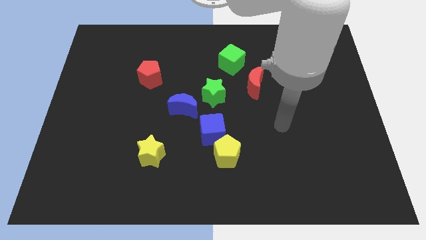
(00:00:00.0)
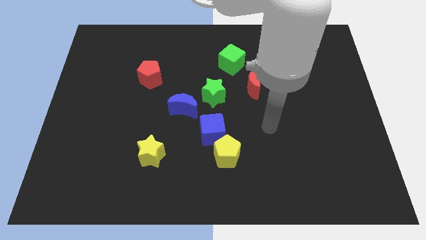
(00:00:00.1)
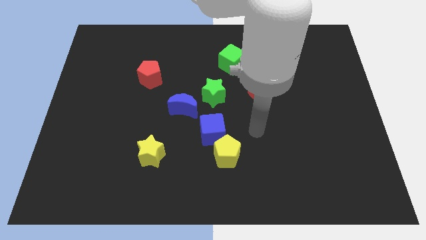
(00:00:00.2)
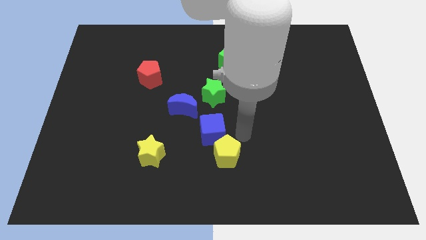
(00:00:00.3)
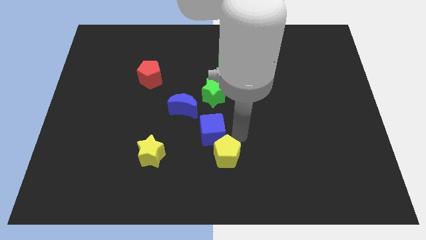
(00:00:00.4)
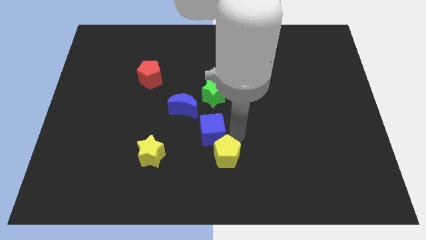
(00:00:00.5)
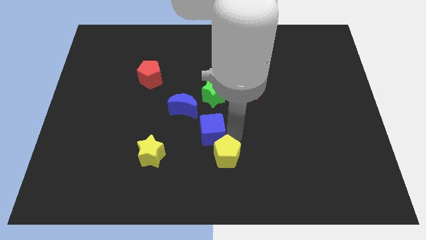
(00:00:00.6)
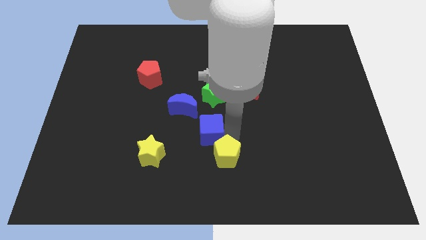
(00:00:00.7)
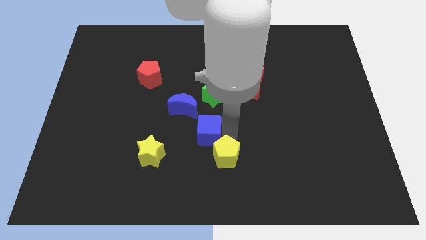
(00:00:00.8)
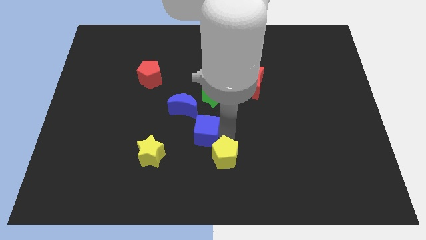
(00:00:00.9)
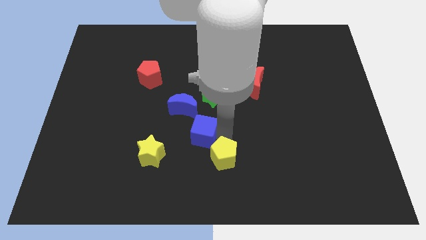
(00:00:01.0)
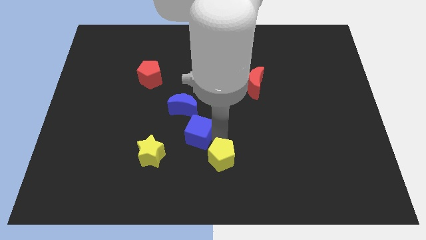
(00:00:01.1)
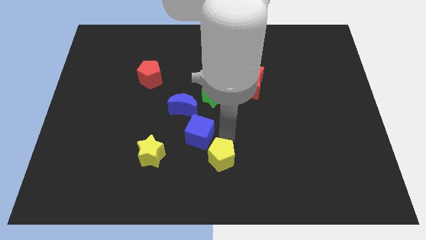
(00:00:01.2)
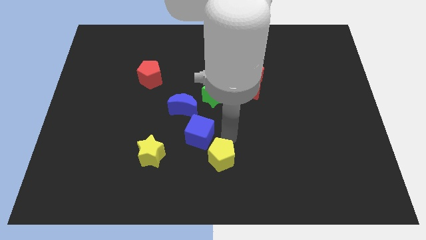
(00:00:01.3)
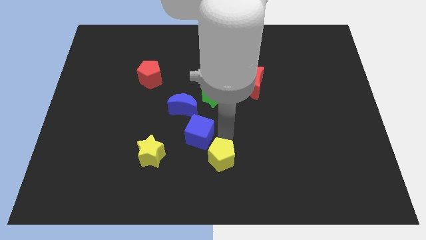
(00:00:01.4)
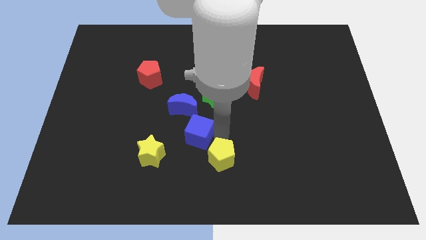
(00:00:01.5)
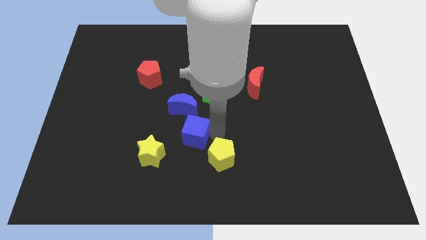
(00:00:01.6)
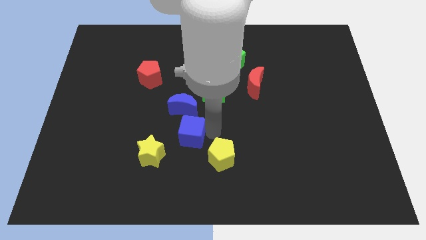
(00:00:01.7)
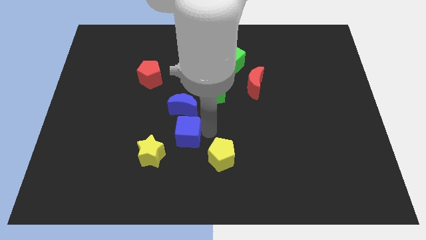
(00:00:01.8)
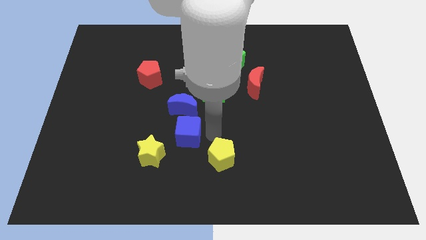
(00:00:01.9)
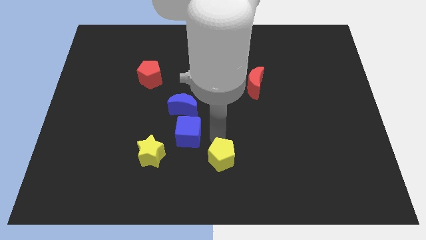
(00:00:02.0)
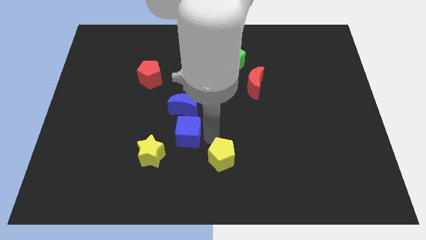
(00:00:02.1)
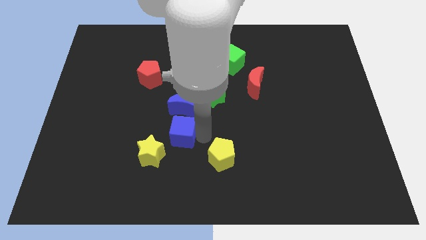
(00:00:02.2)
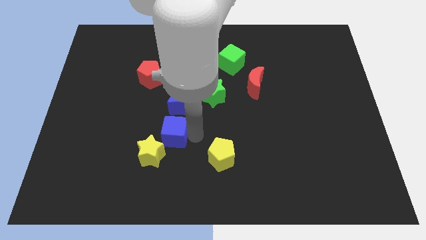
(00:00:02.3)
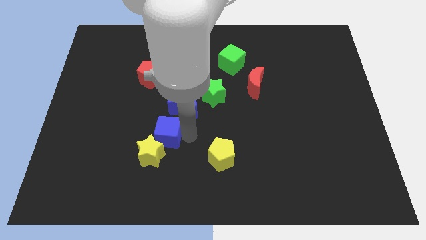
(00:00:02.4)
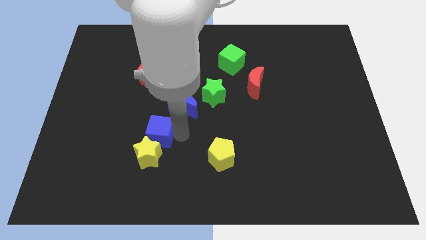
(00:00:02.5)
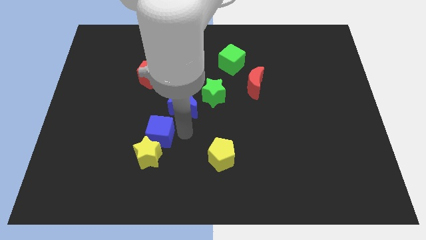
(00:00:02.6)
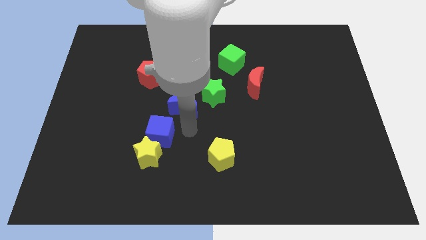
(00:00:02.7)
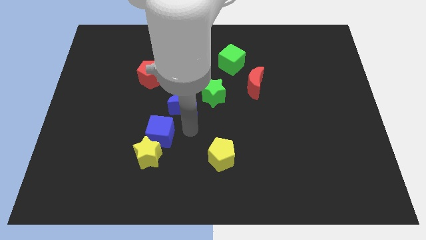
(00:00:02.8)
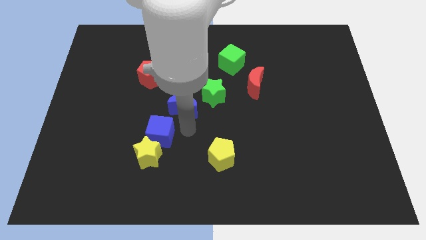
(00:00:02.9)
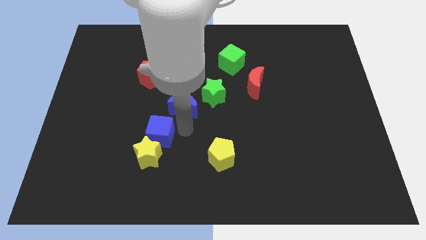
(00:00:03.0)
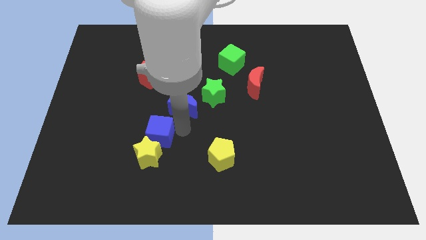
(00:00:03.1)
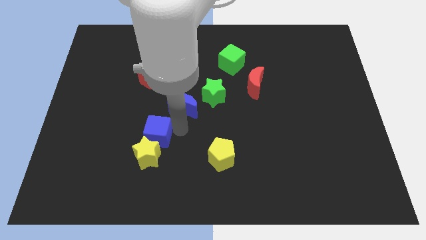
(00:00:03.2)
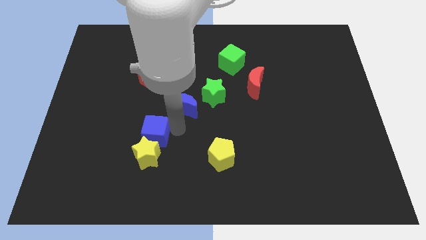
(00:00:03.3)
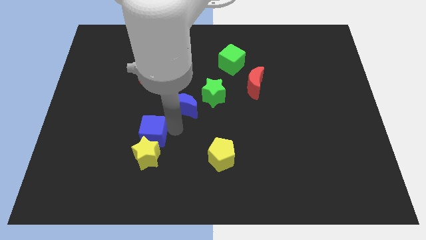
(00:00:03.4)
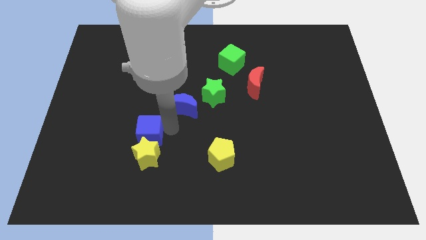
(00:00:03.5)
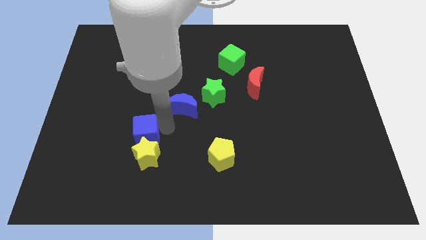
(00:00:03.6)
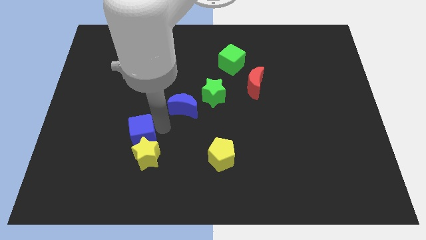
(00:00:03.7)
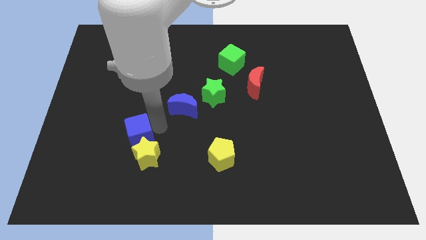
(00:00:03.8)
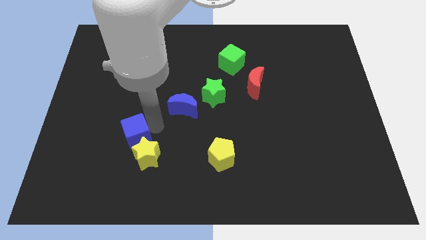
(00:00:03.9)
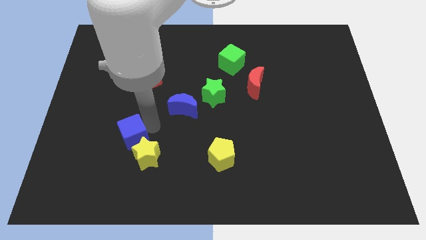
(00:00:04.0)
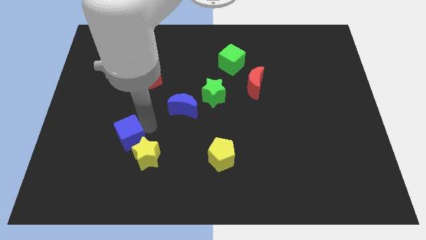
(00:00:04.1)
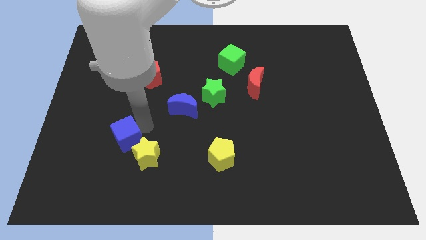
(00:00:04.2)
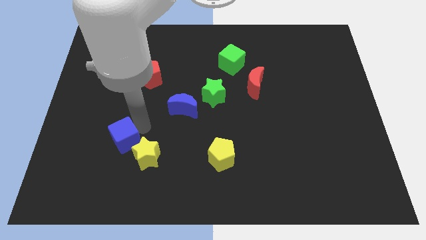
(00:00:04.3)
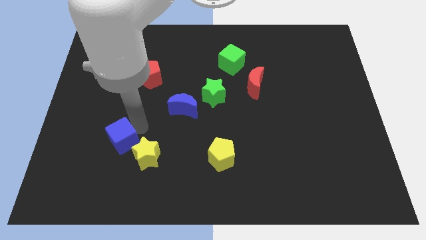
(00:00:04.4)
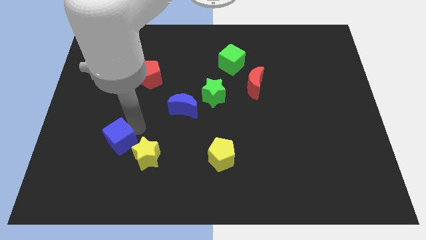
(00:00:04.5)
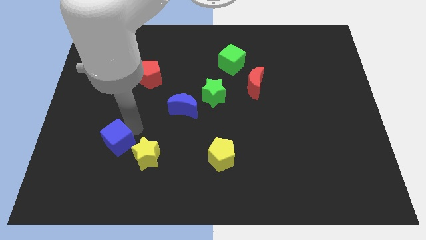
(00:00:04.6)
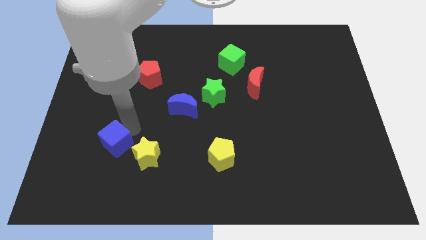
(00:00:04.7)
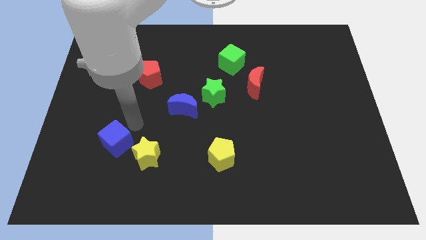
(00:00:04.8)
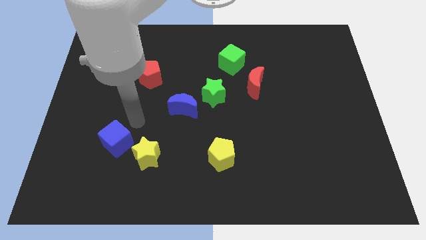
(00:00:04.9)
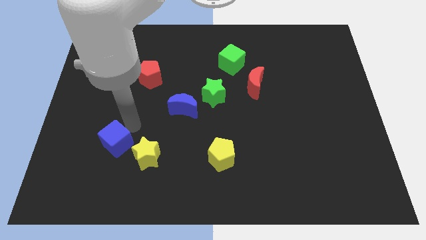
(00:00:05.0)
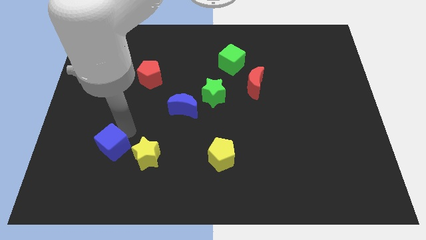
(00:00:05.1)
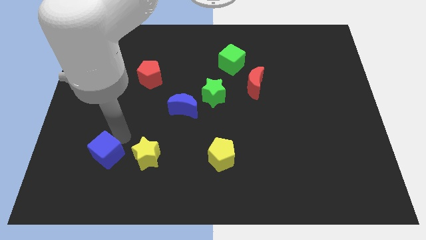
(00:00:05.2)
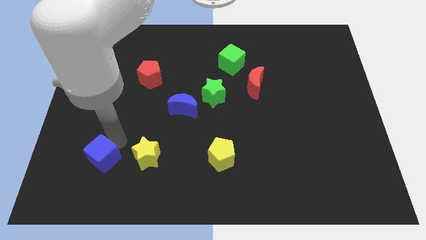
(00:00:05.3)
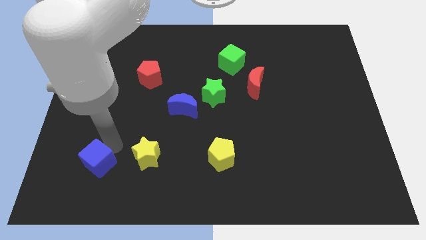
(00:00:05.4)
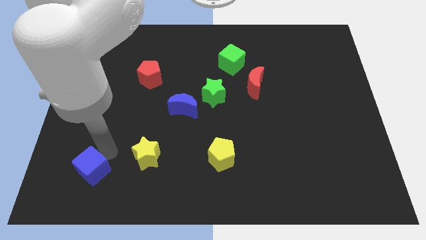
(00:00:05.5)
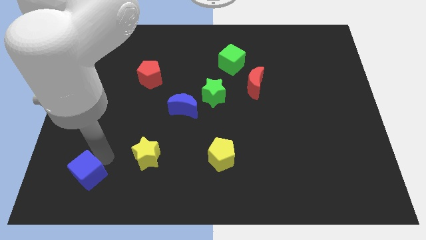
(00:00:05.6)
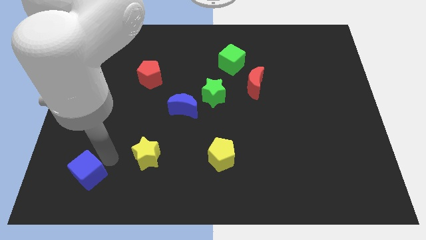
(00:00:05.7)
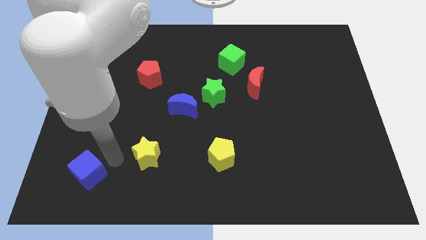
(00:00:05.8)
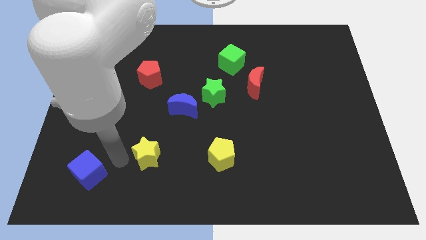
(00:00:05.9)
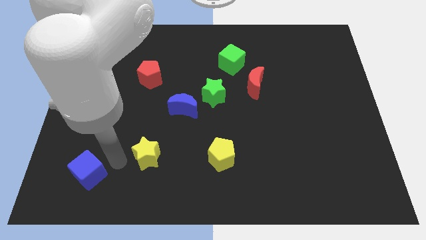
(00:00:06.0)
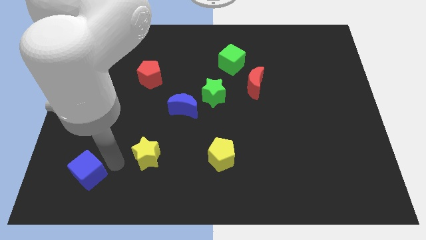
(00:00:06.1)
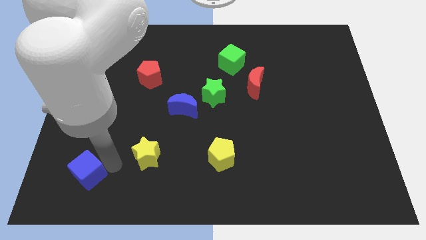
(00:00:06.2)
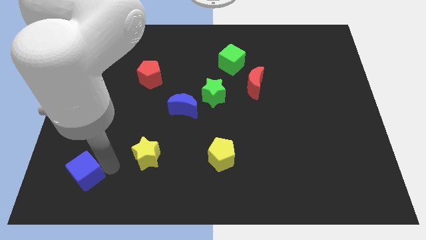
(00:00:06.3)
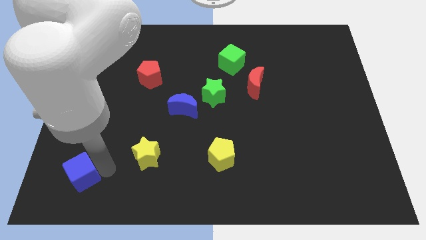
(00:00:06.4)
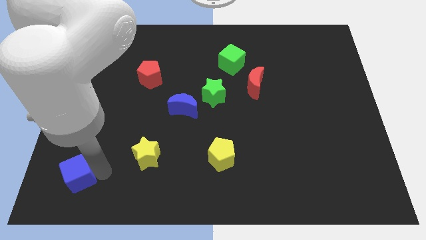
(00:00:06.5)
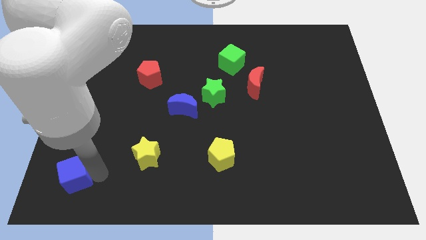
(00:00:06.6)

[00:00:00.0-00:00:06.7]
put the blue cube to the bottom left of the board
